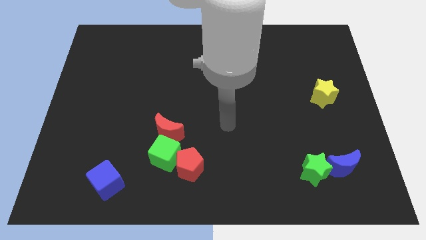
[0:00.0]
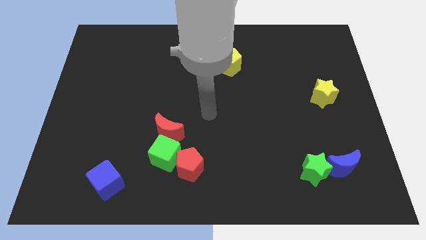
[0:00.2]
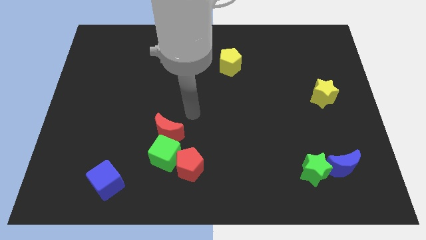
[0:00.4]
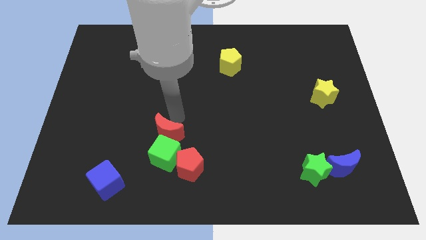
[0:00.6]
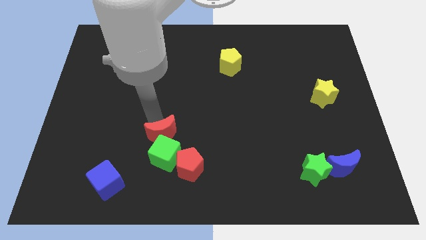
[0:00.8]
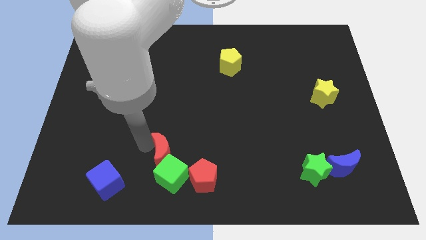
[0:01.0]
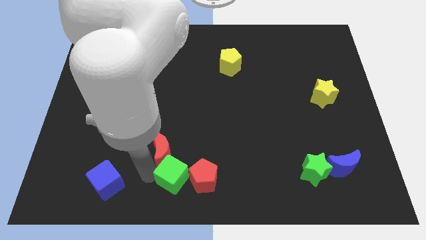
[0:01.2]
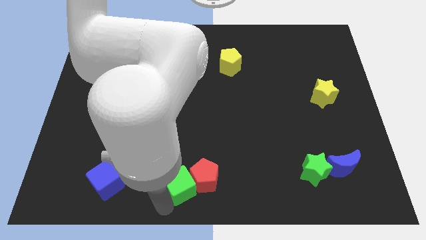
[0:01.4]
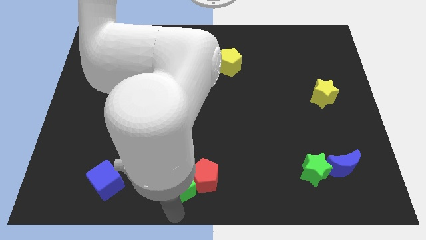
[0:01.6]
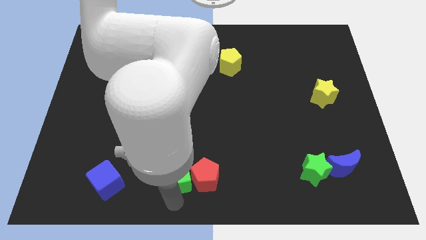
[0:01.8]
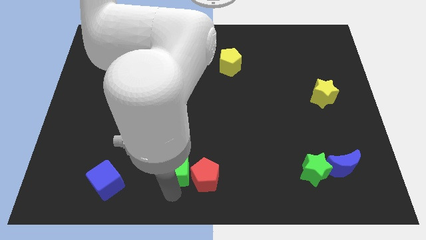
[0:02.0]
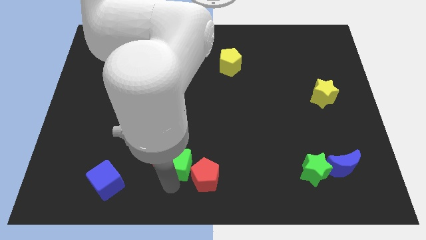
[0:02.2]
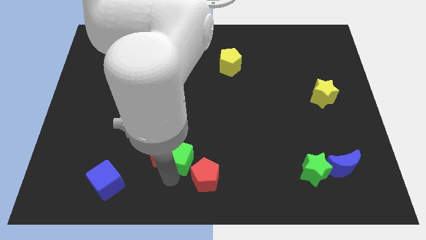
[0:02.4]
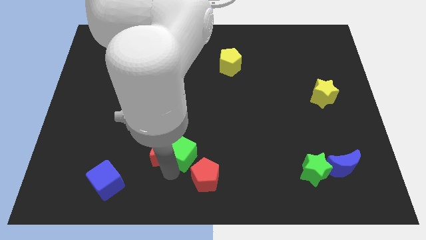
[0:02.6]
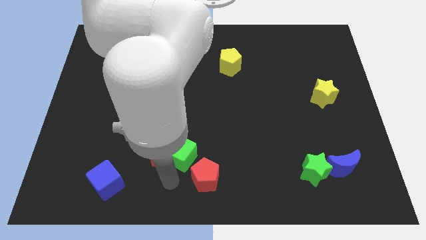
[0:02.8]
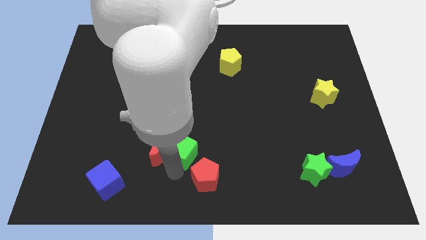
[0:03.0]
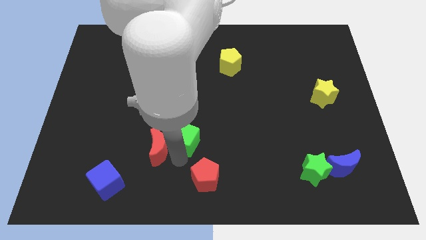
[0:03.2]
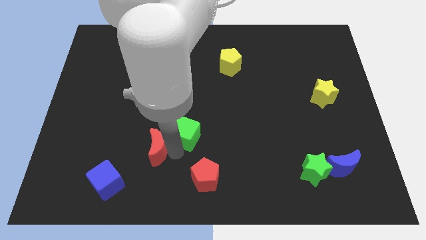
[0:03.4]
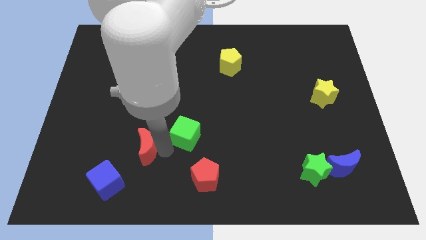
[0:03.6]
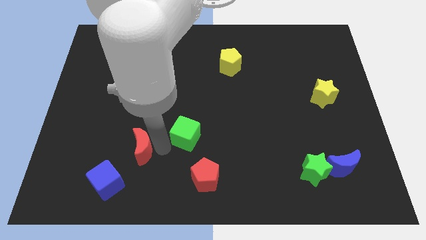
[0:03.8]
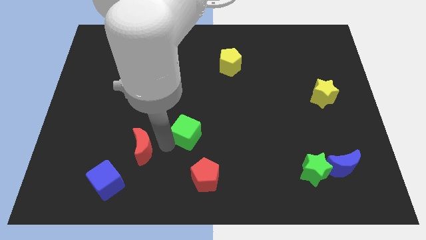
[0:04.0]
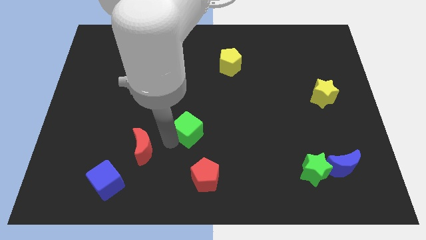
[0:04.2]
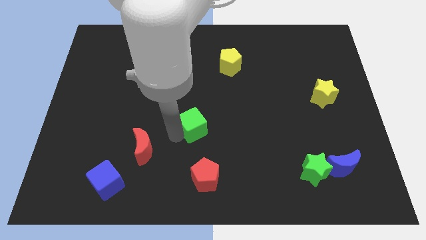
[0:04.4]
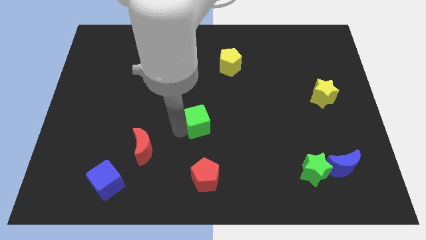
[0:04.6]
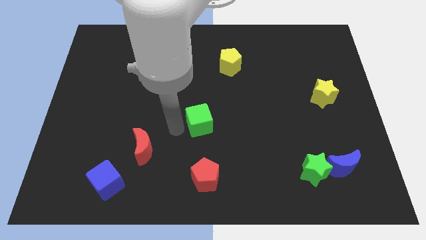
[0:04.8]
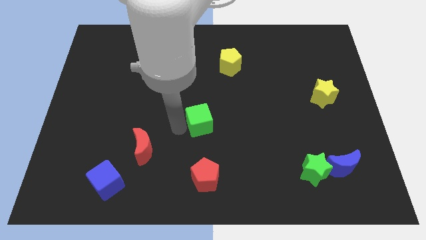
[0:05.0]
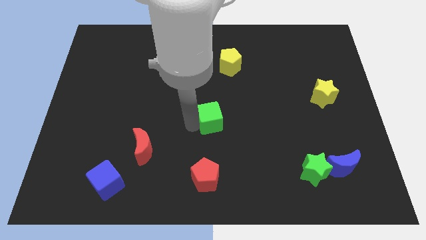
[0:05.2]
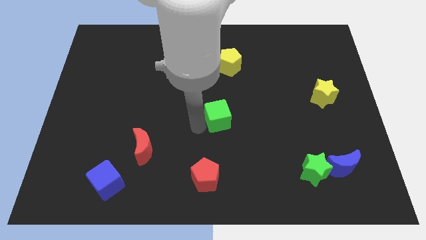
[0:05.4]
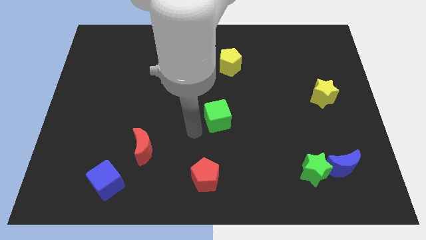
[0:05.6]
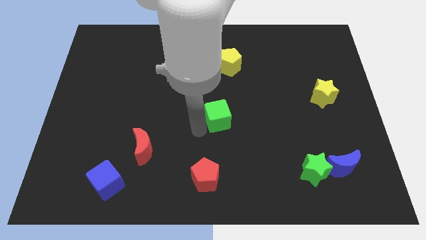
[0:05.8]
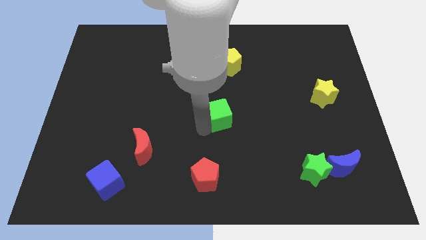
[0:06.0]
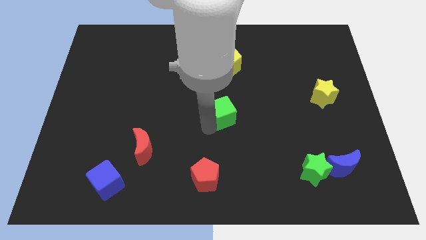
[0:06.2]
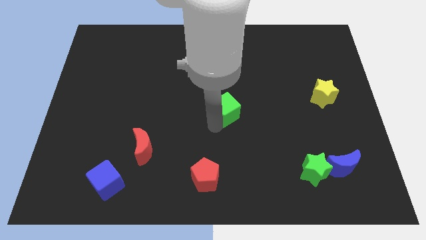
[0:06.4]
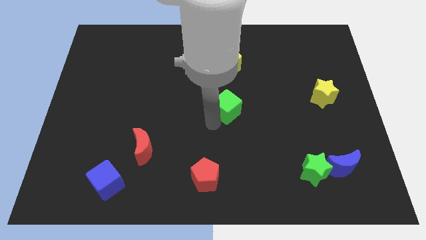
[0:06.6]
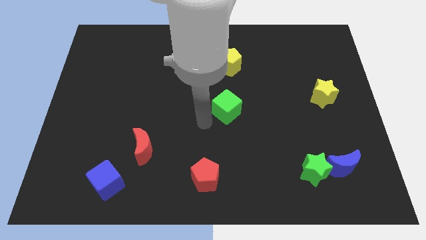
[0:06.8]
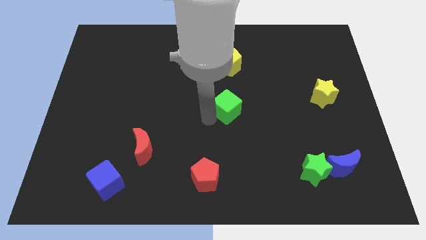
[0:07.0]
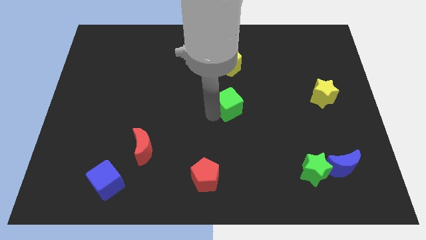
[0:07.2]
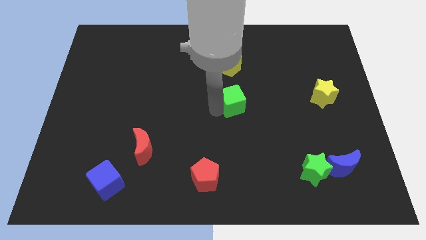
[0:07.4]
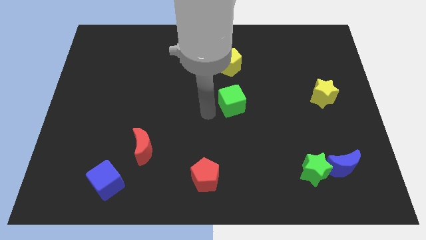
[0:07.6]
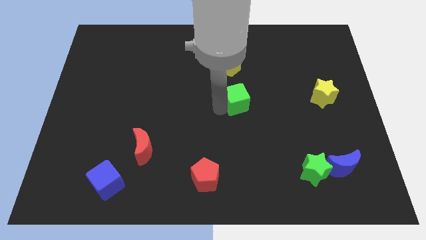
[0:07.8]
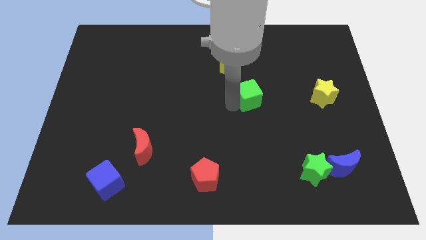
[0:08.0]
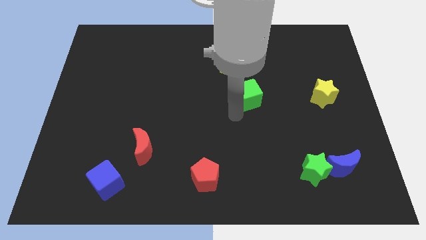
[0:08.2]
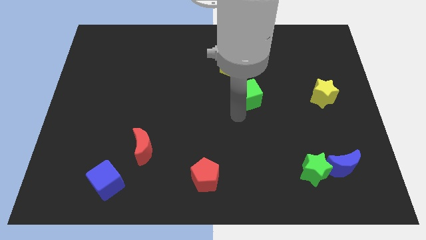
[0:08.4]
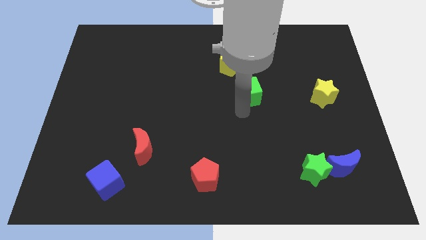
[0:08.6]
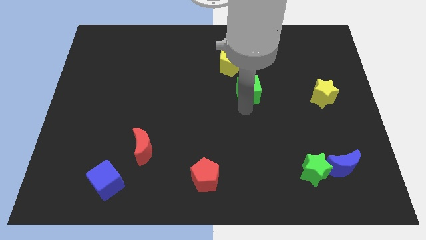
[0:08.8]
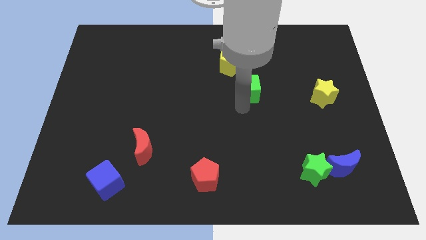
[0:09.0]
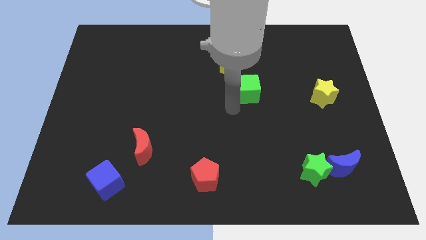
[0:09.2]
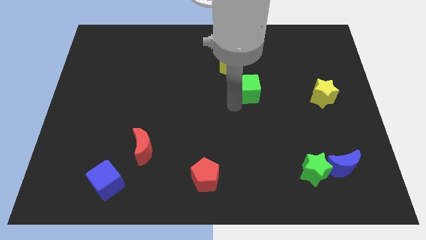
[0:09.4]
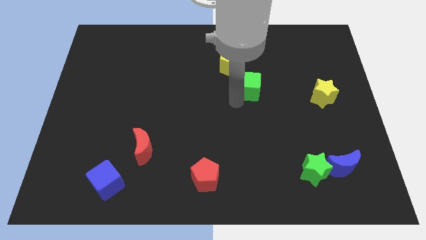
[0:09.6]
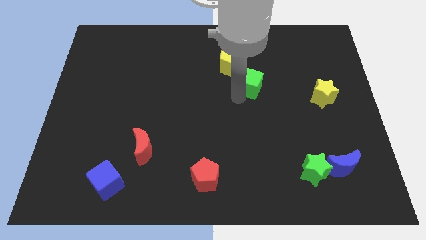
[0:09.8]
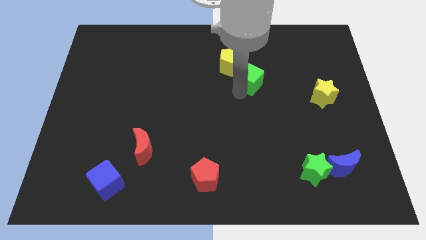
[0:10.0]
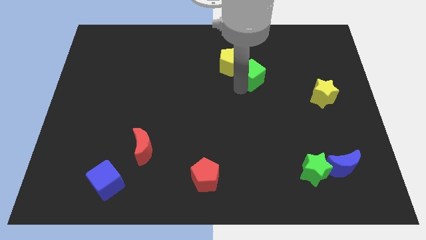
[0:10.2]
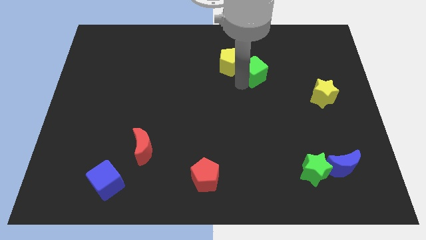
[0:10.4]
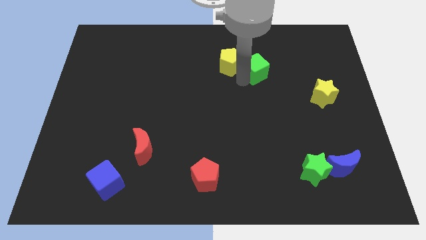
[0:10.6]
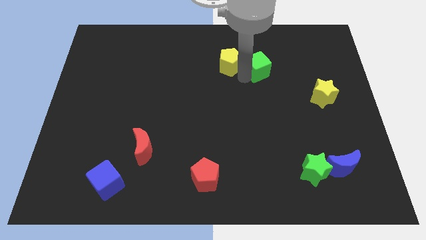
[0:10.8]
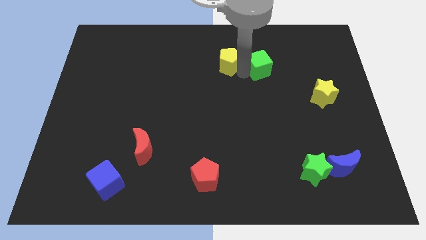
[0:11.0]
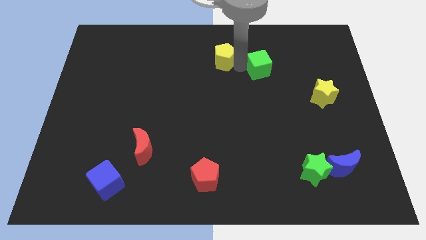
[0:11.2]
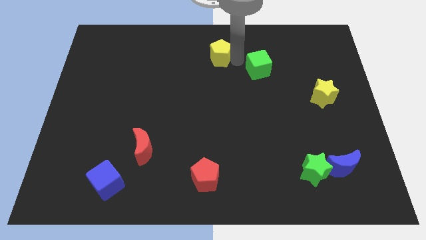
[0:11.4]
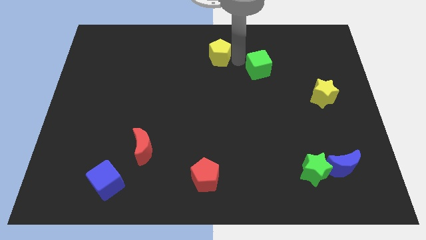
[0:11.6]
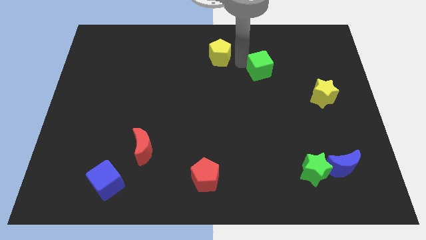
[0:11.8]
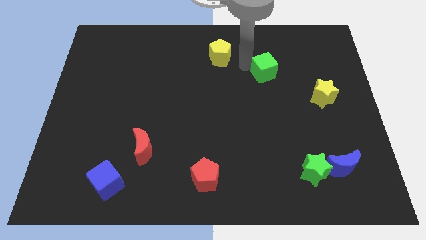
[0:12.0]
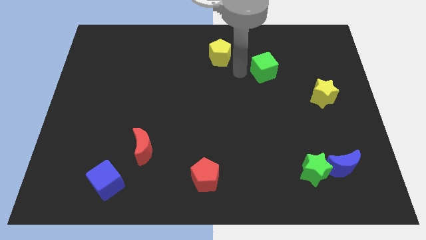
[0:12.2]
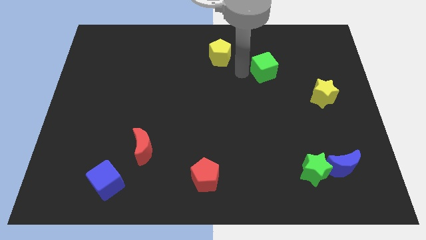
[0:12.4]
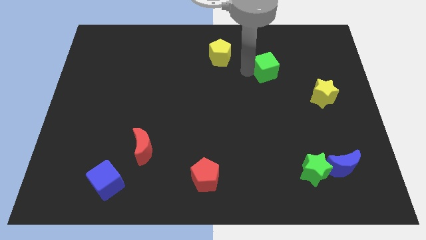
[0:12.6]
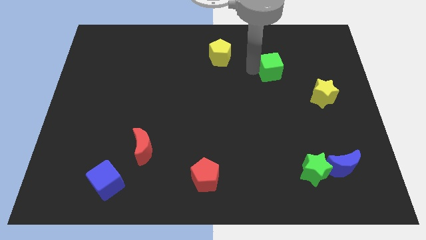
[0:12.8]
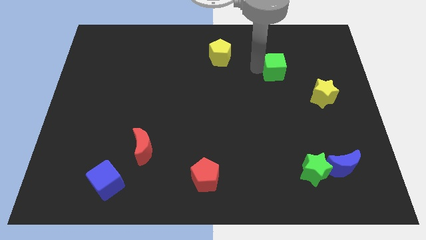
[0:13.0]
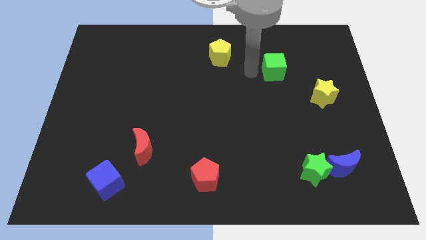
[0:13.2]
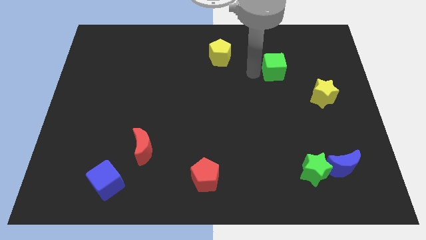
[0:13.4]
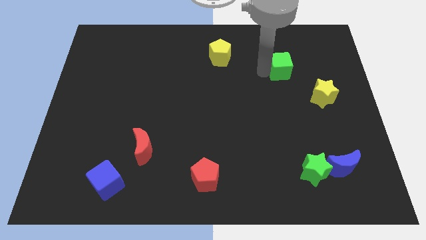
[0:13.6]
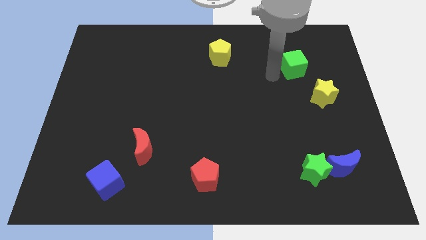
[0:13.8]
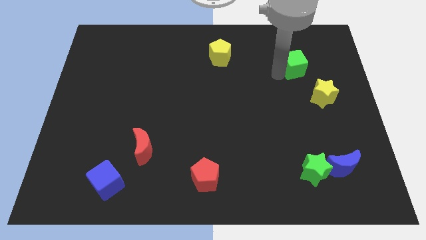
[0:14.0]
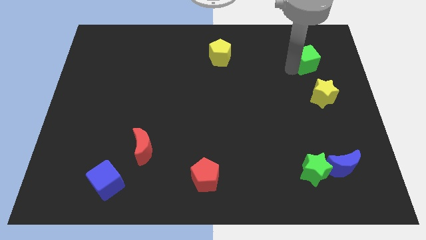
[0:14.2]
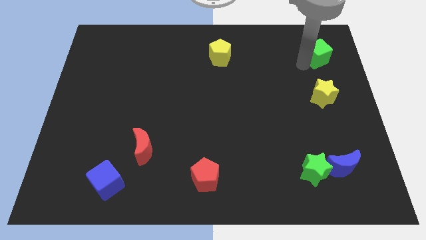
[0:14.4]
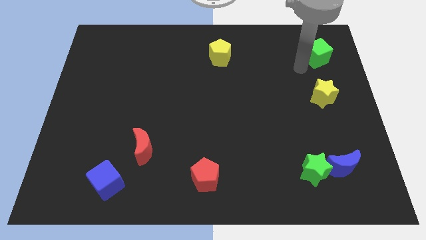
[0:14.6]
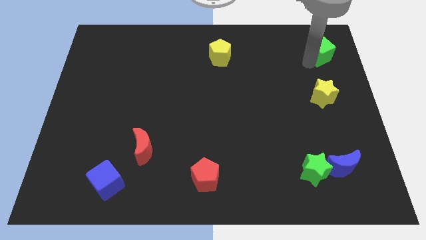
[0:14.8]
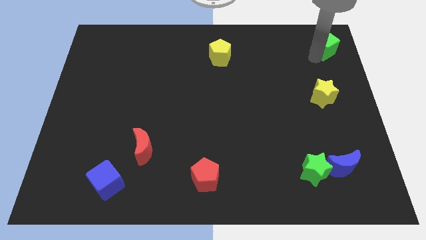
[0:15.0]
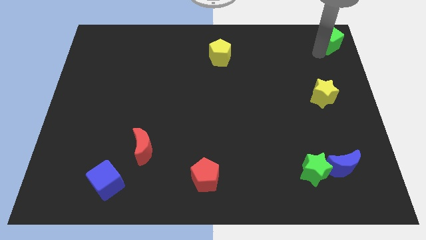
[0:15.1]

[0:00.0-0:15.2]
move the green cube to the top right of the board
